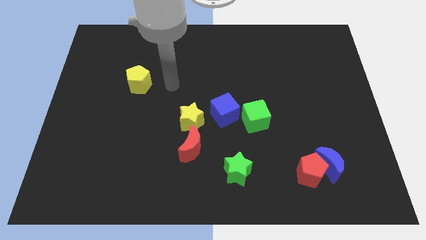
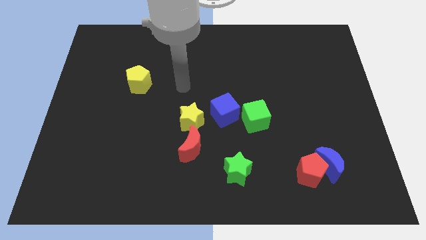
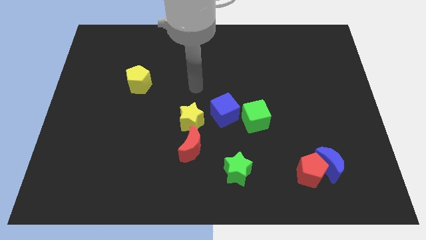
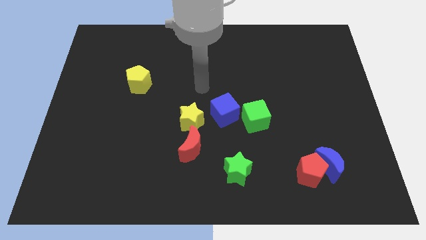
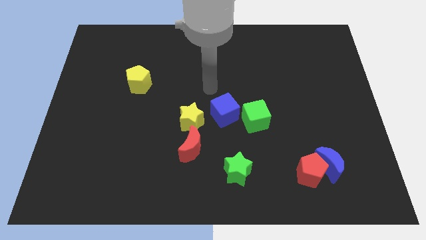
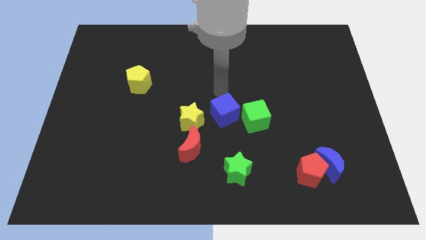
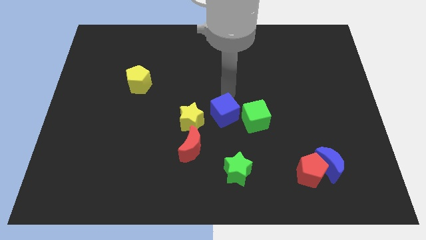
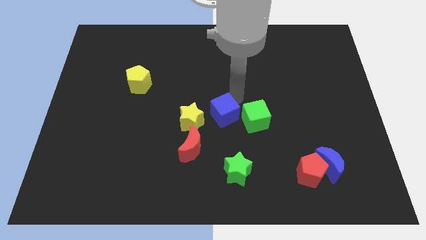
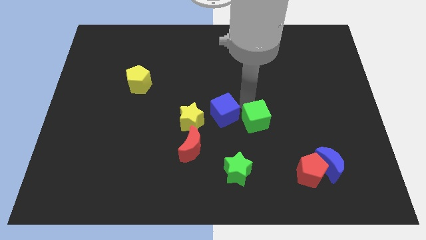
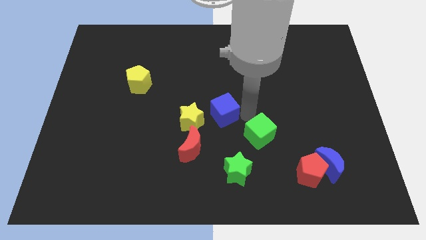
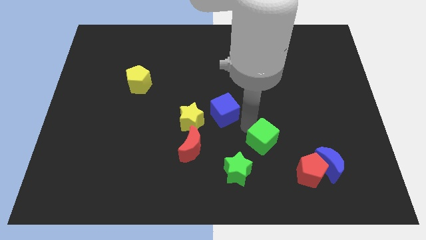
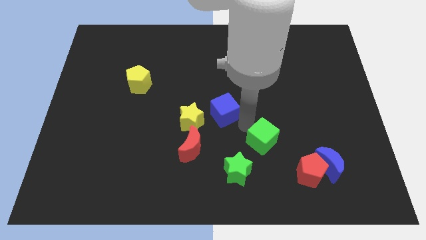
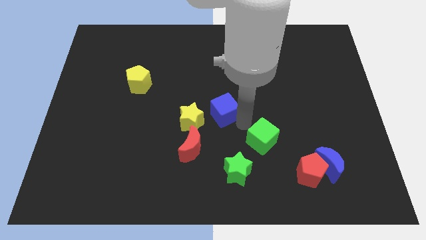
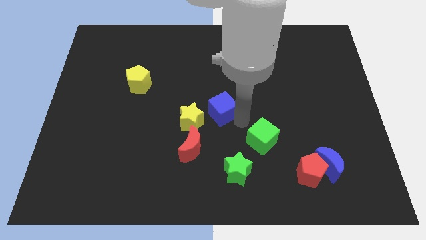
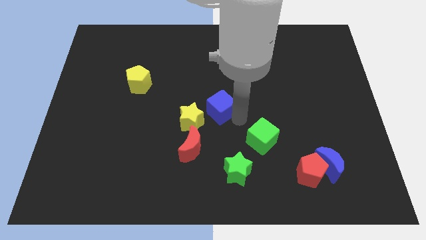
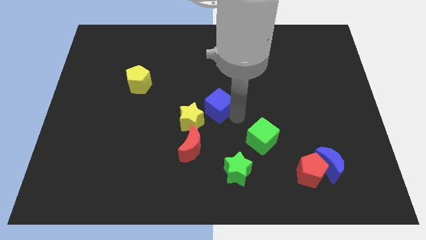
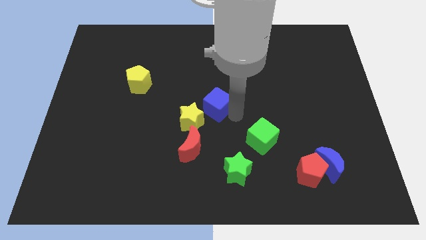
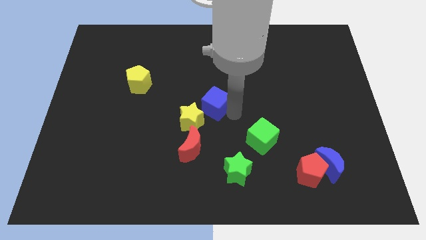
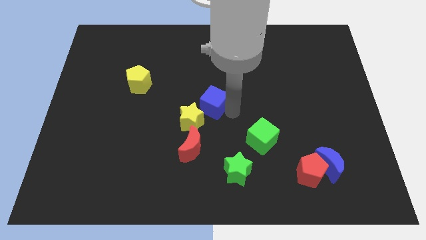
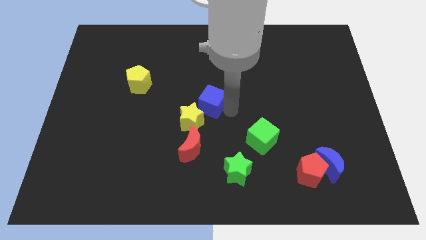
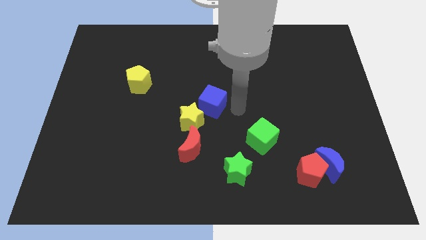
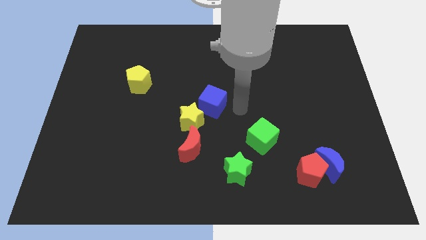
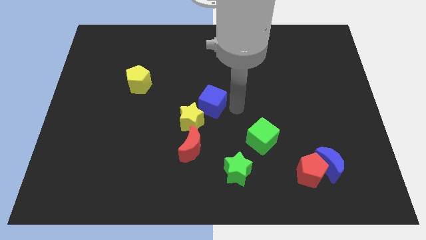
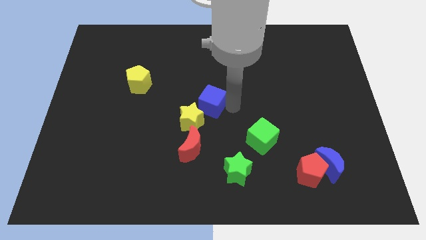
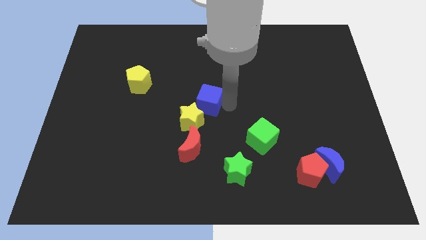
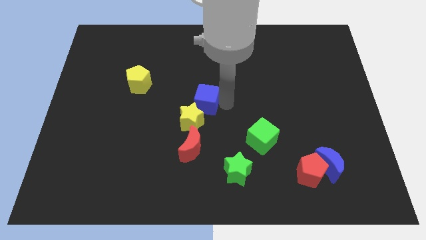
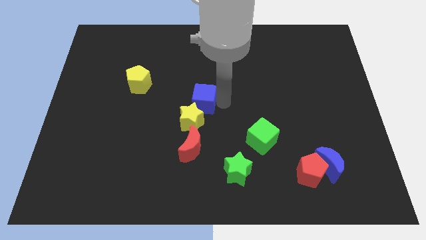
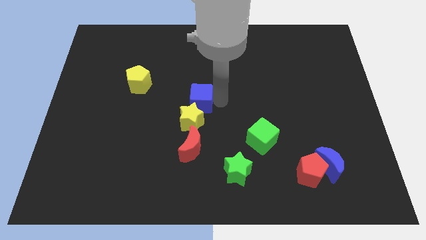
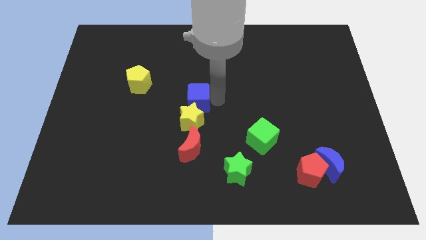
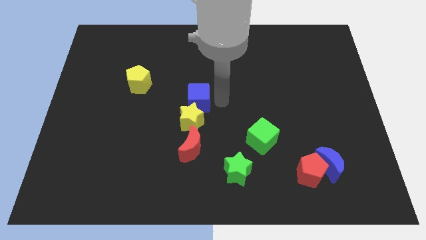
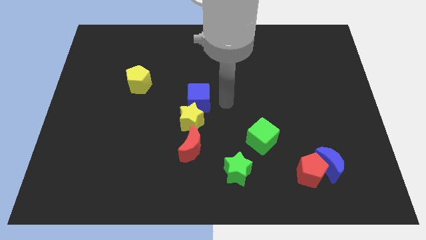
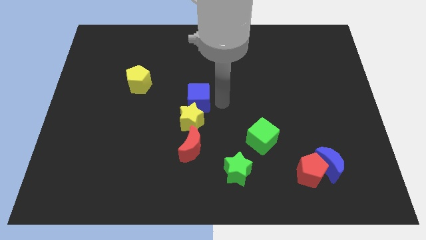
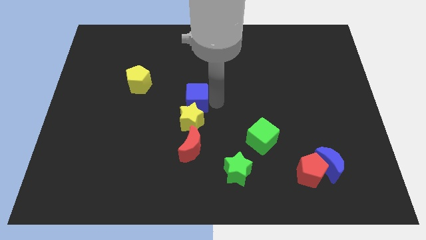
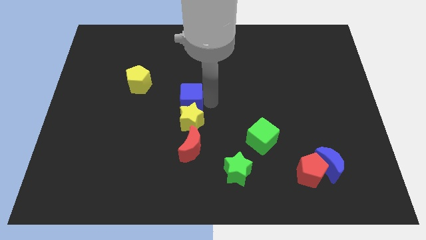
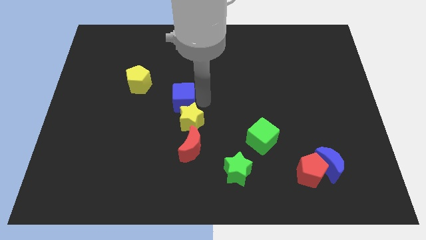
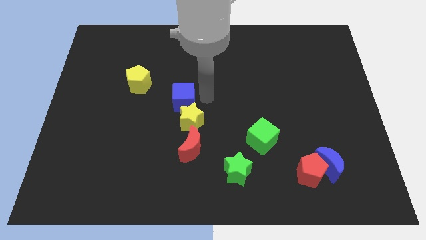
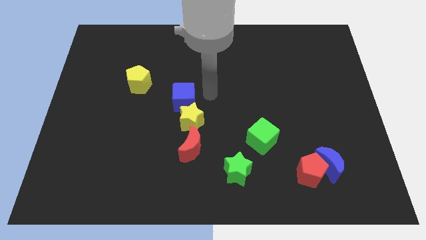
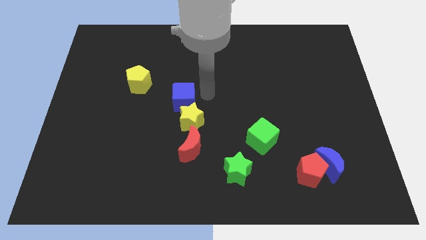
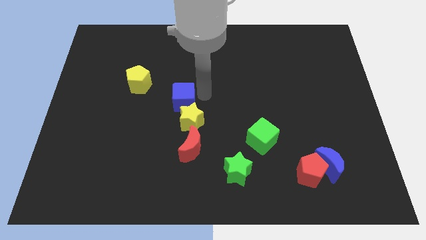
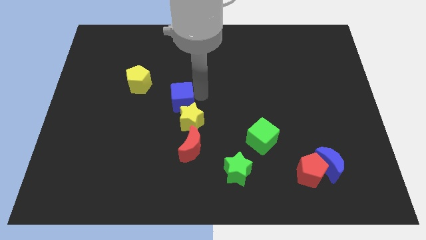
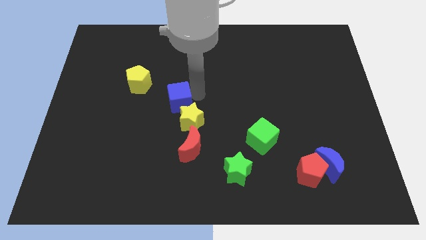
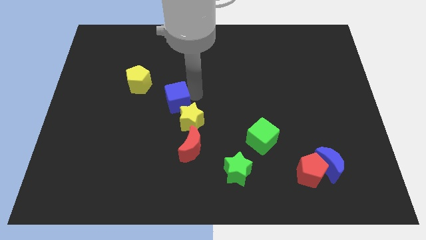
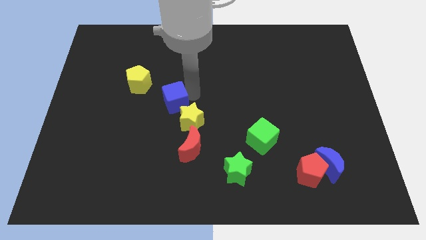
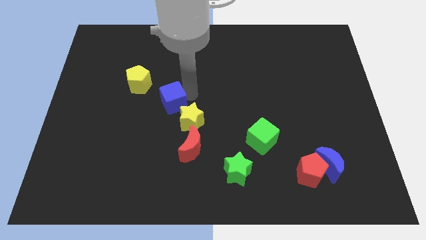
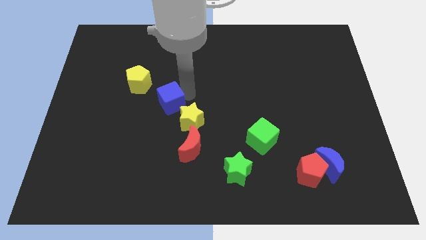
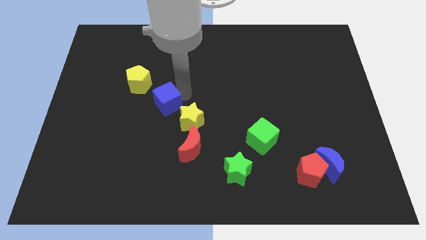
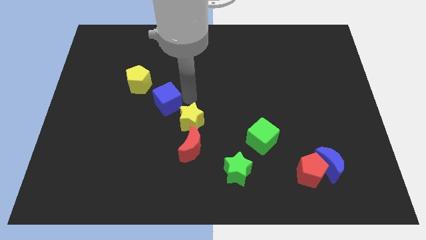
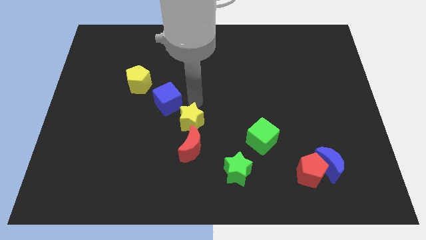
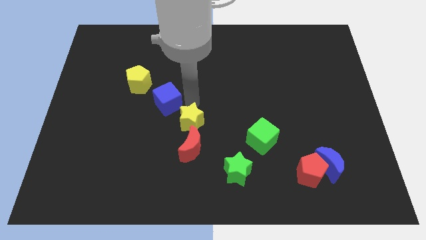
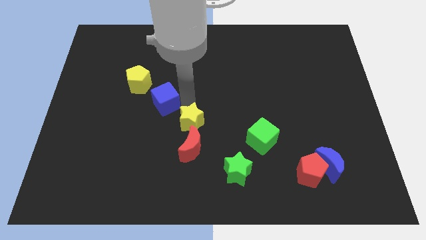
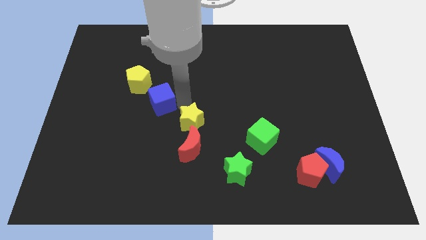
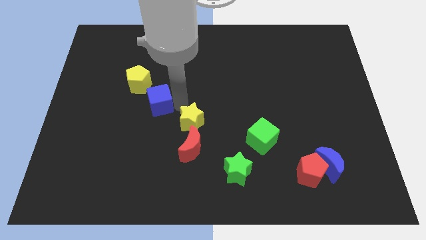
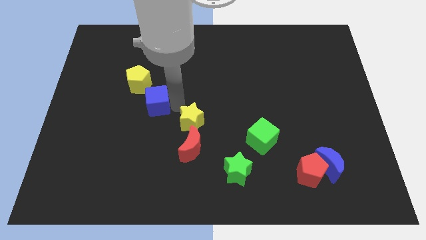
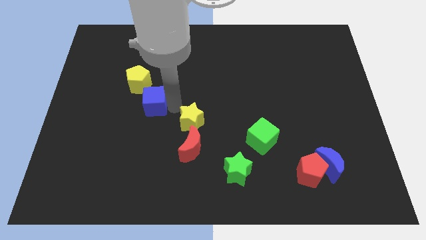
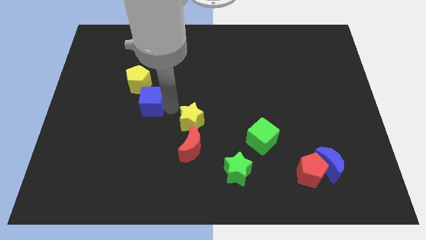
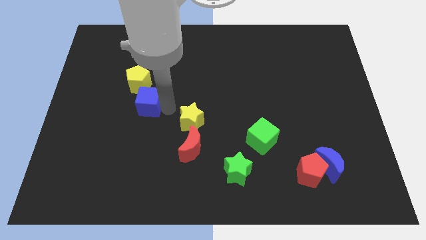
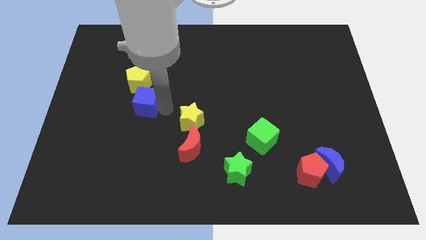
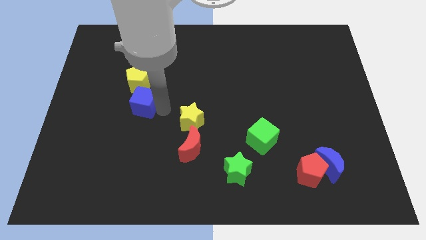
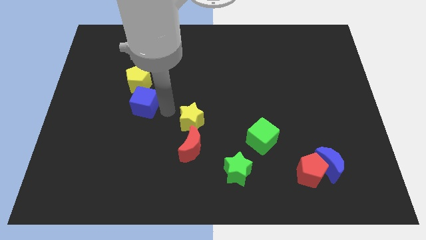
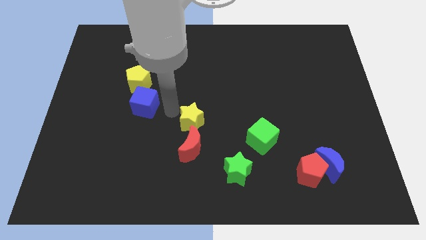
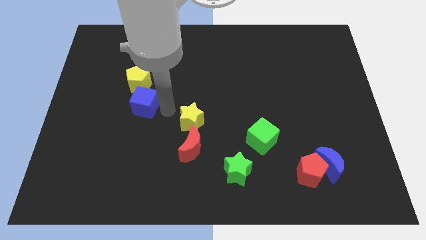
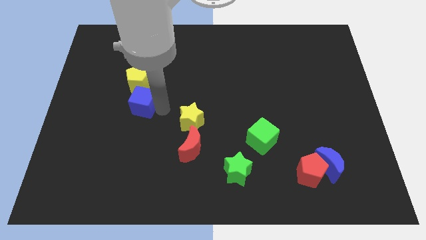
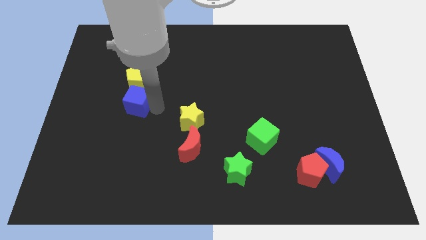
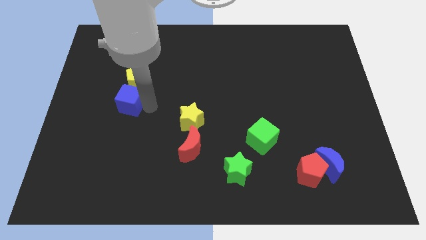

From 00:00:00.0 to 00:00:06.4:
put the blue cube diagonally down and to the left of the yellow pentagon

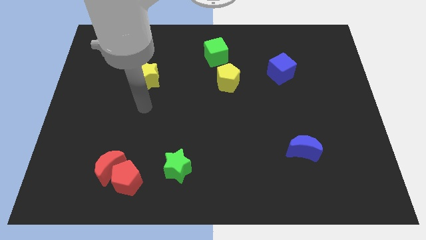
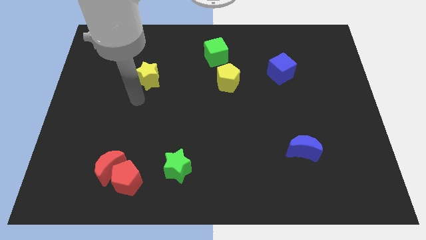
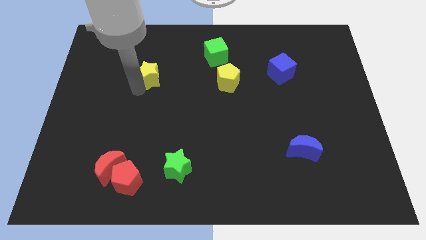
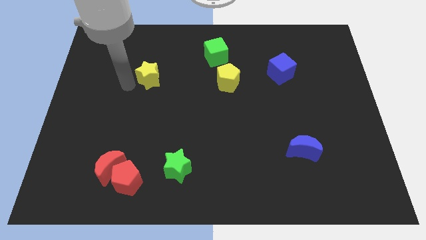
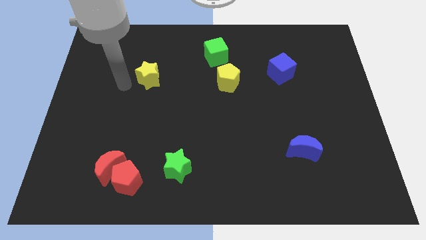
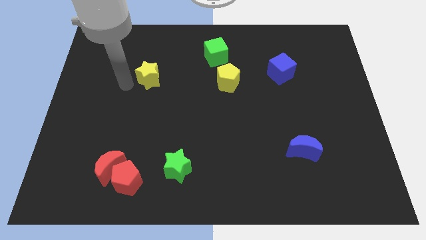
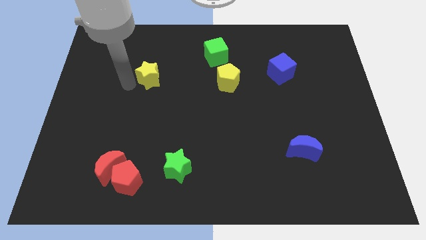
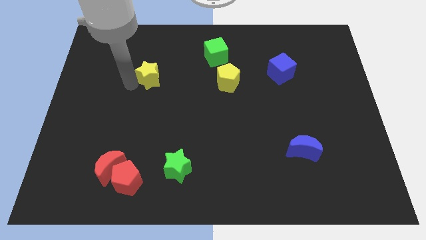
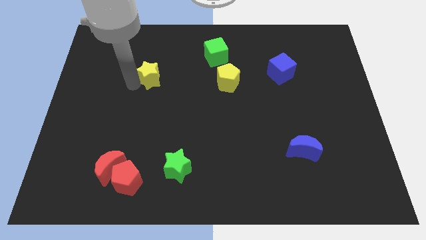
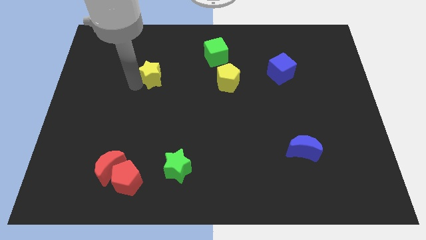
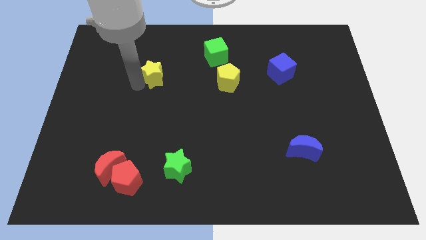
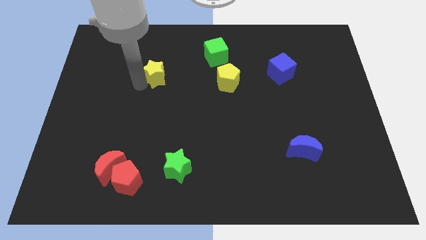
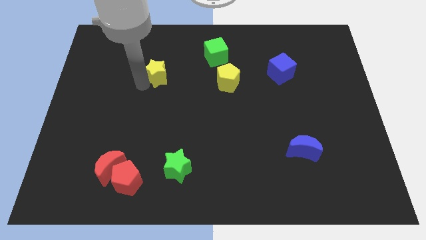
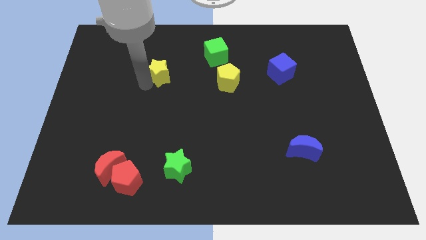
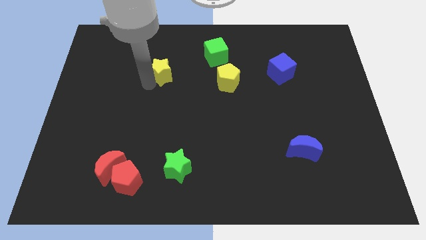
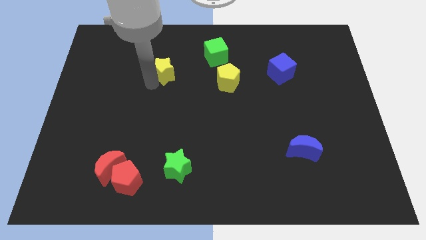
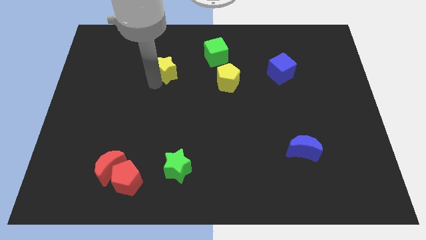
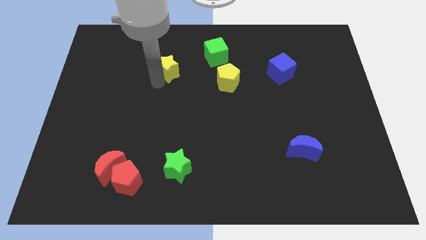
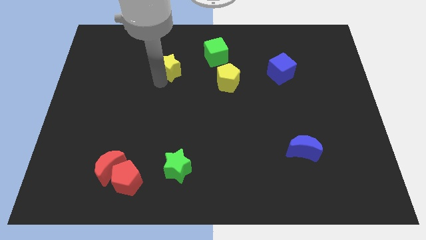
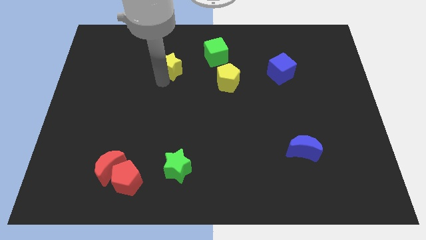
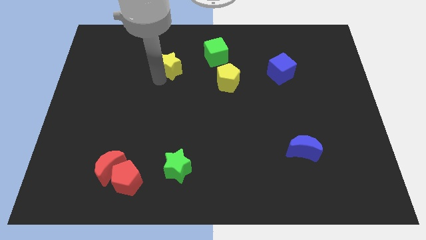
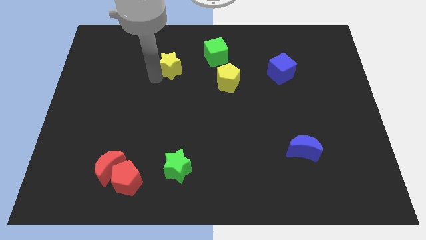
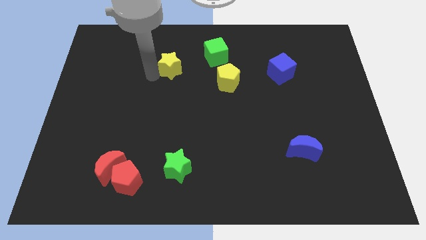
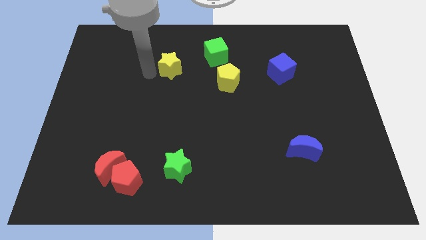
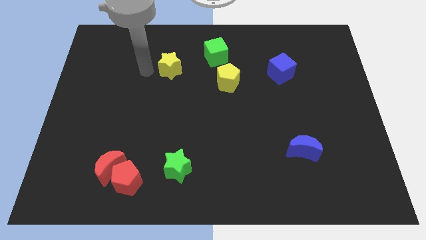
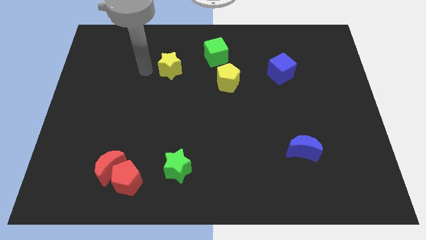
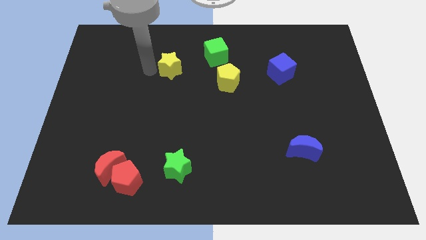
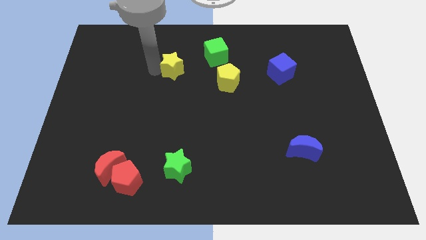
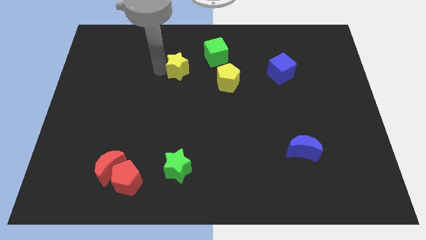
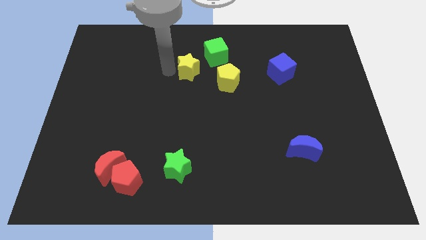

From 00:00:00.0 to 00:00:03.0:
push the yellow star diagonally up and to the left of the yellow pentagon
